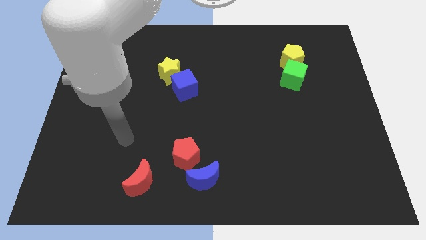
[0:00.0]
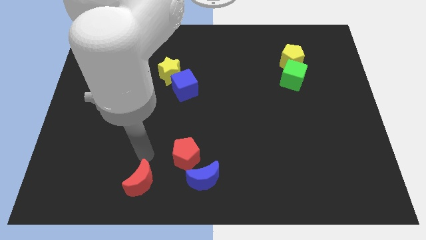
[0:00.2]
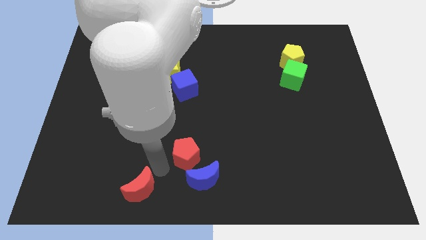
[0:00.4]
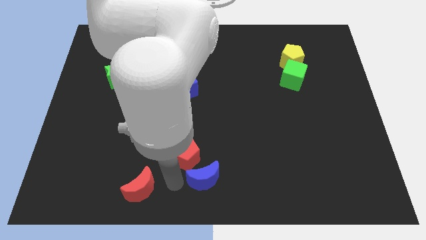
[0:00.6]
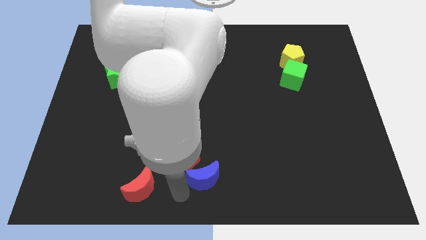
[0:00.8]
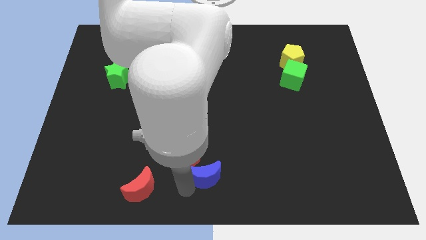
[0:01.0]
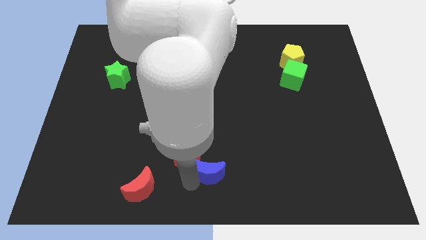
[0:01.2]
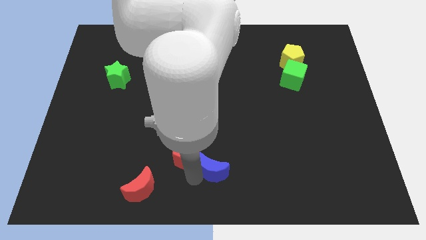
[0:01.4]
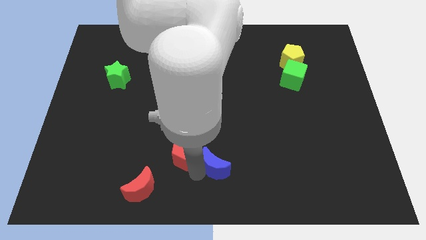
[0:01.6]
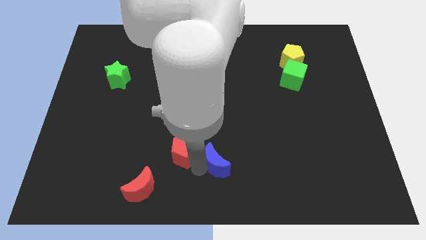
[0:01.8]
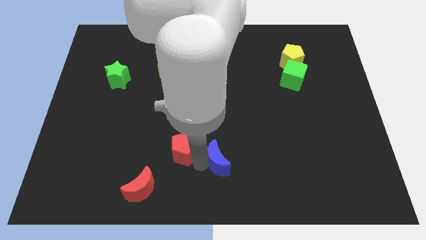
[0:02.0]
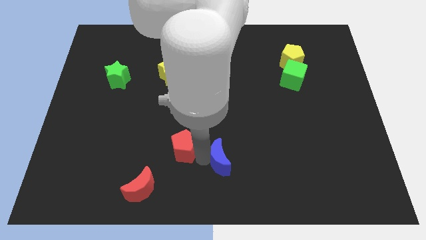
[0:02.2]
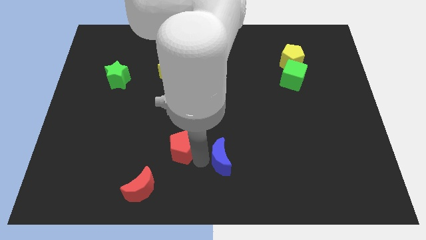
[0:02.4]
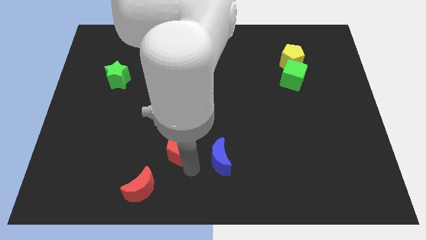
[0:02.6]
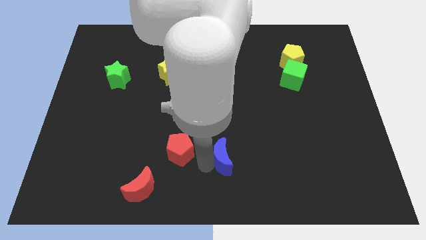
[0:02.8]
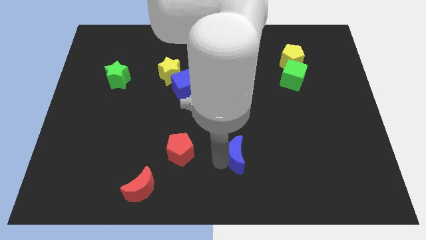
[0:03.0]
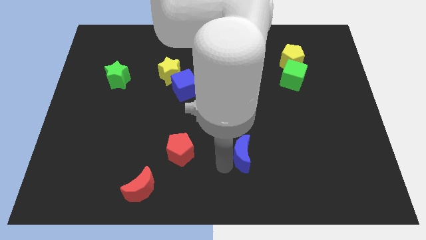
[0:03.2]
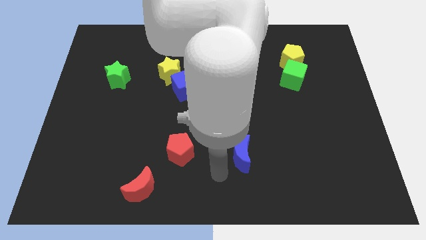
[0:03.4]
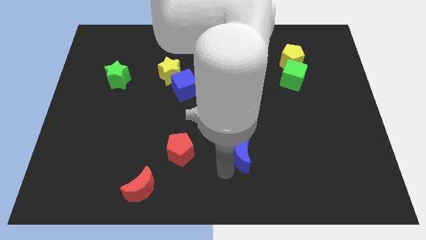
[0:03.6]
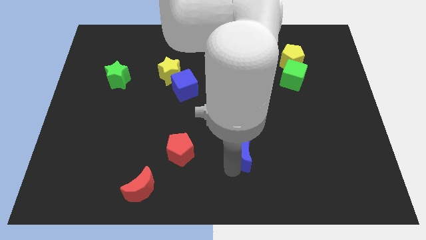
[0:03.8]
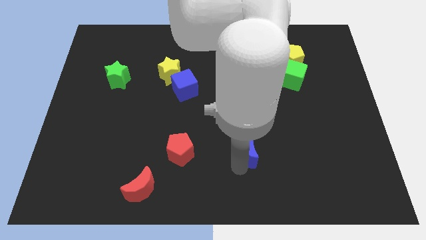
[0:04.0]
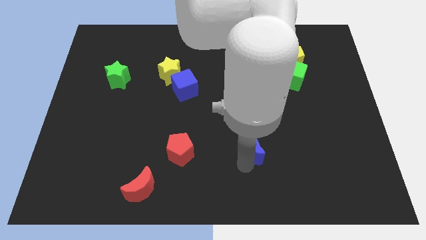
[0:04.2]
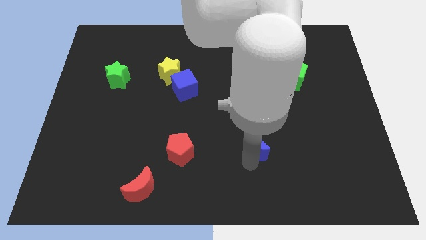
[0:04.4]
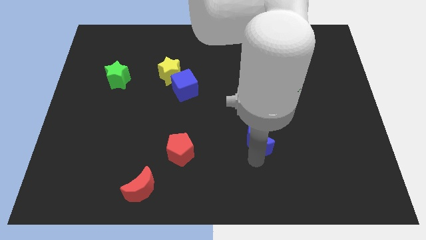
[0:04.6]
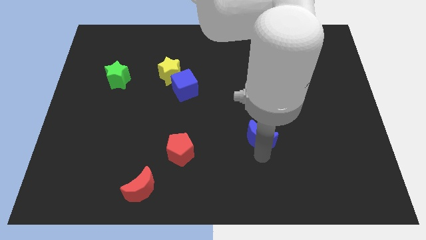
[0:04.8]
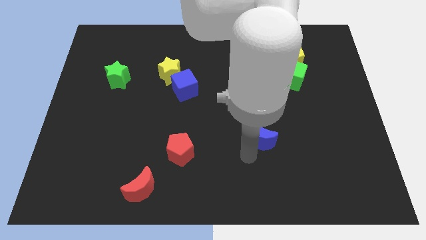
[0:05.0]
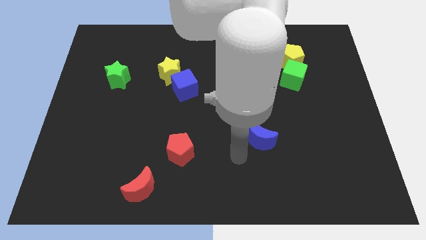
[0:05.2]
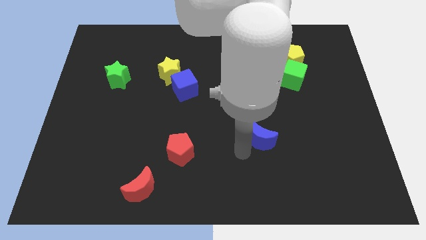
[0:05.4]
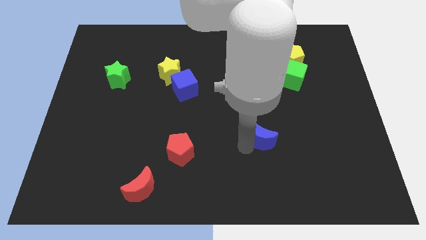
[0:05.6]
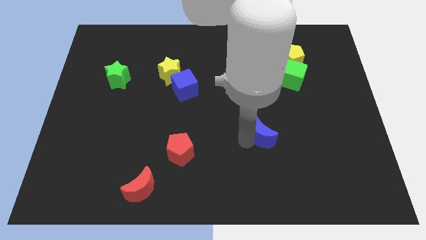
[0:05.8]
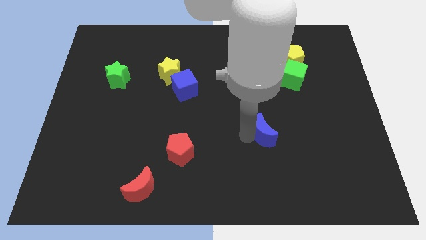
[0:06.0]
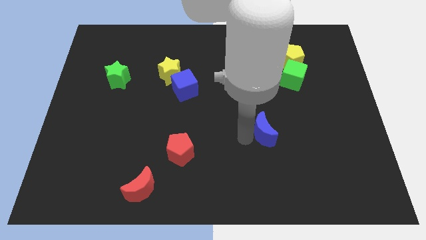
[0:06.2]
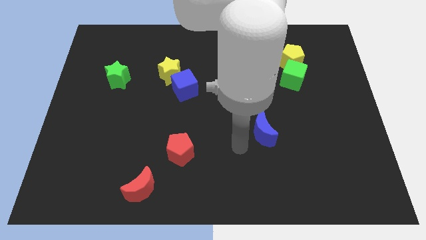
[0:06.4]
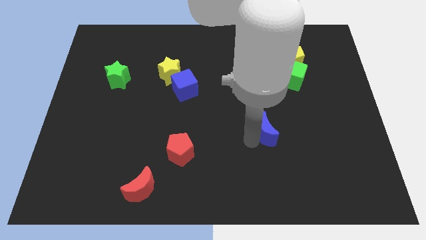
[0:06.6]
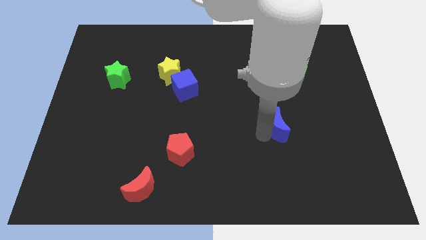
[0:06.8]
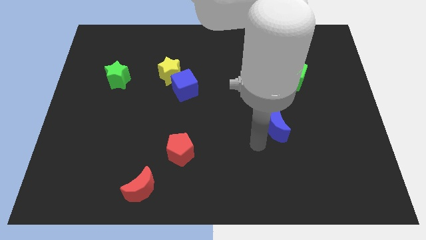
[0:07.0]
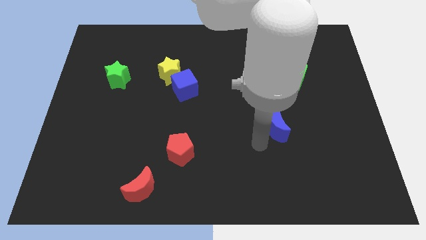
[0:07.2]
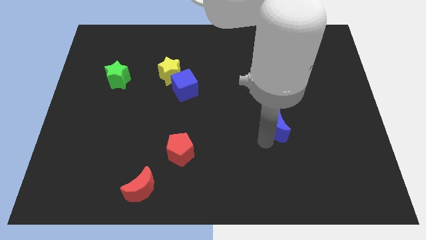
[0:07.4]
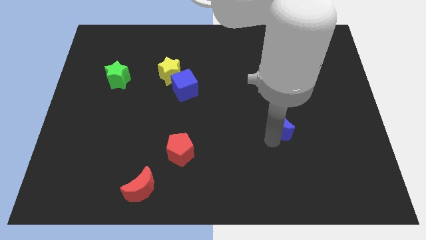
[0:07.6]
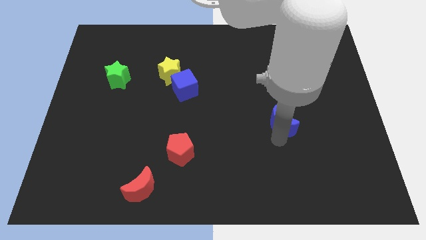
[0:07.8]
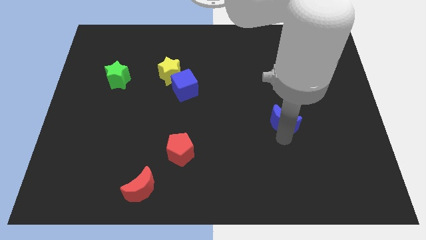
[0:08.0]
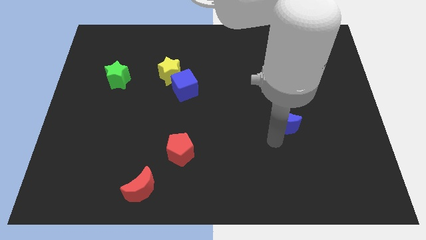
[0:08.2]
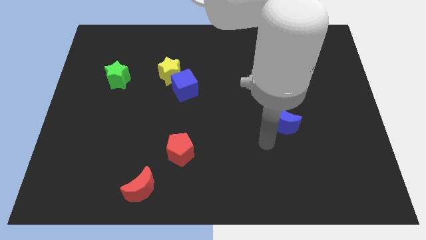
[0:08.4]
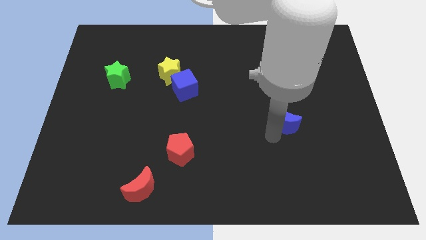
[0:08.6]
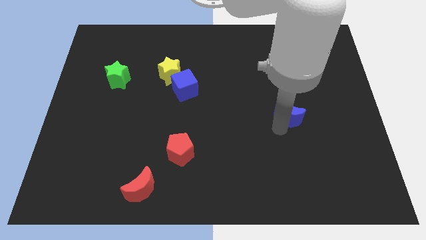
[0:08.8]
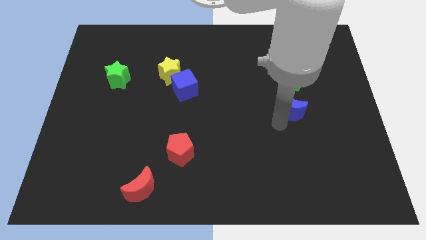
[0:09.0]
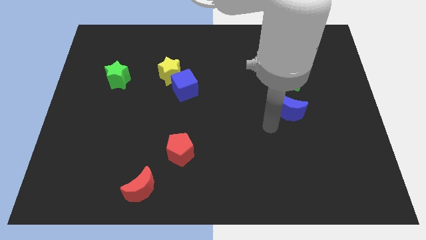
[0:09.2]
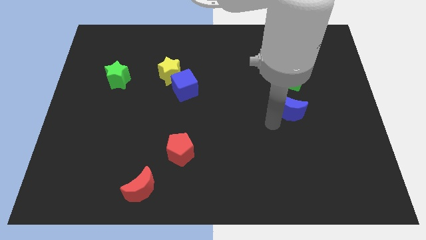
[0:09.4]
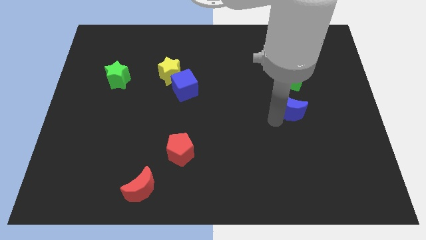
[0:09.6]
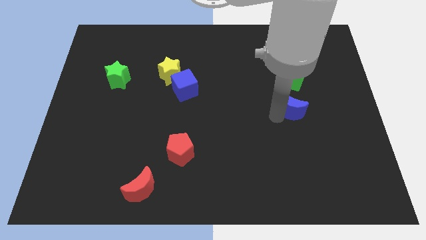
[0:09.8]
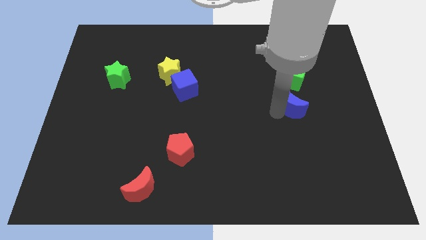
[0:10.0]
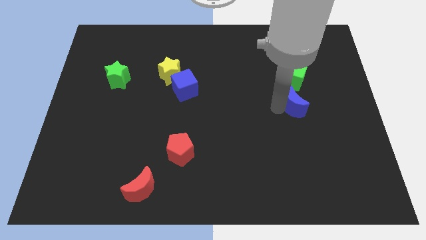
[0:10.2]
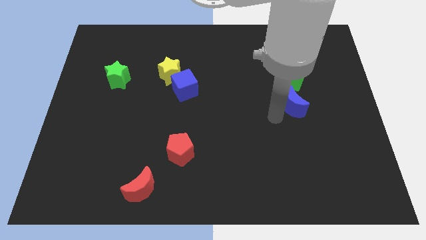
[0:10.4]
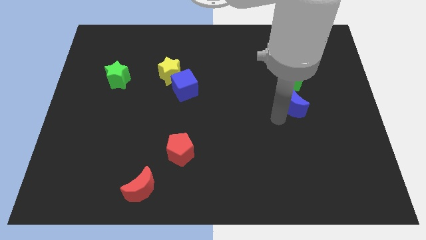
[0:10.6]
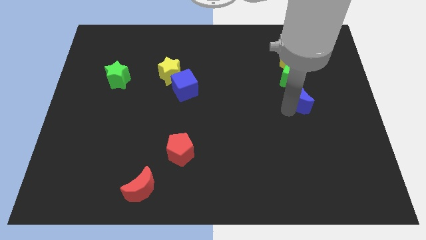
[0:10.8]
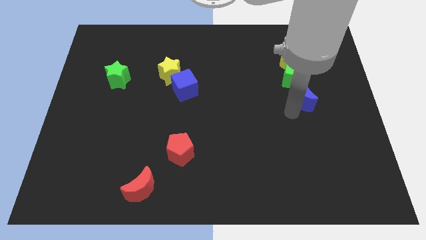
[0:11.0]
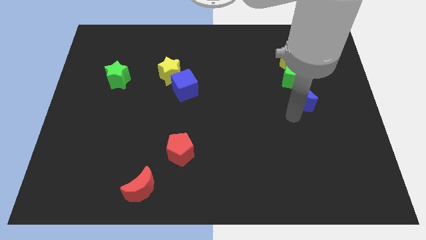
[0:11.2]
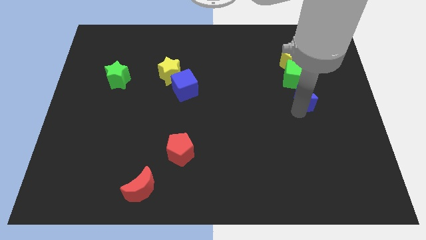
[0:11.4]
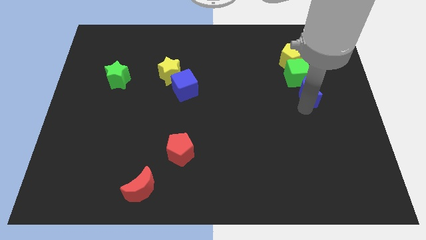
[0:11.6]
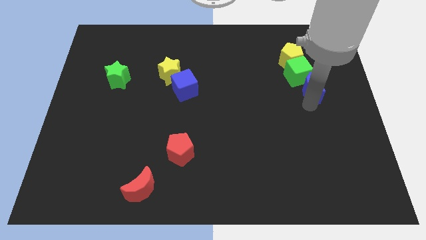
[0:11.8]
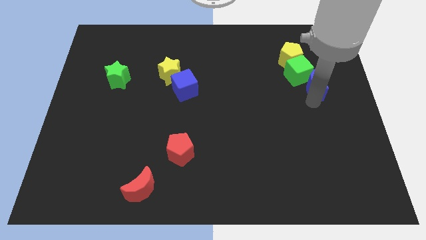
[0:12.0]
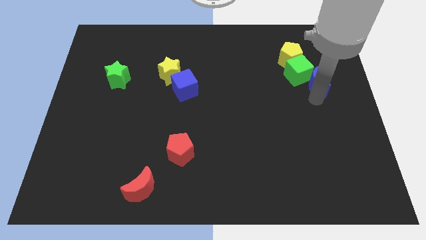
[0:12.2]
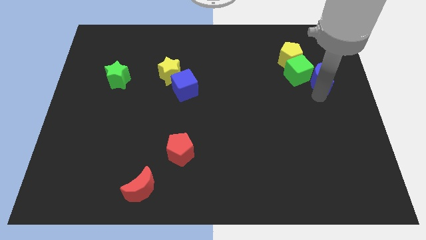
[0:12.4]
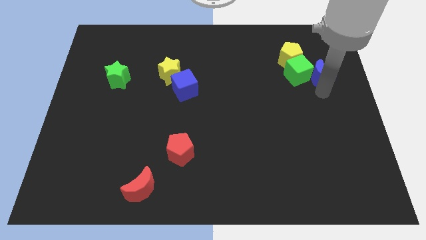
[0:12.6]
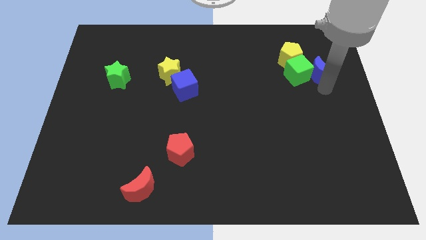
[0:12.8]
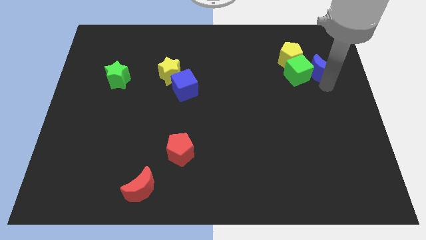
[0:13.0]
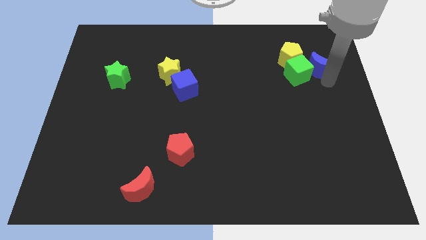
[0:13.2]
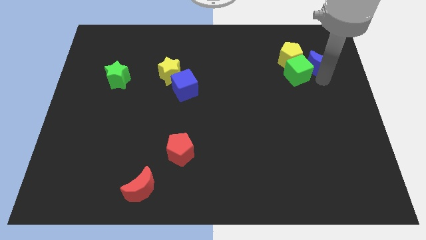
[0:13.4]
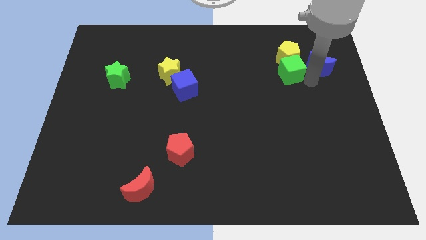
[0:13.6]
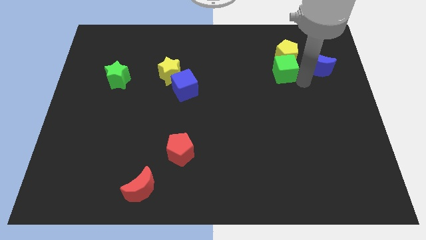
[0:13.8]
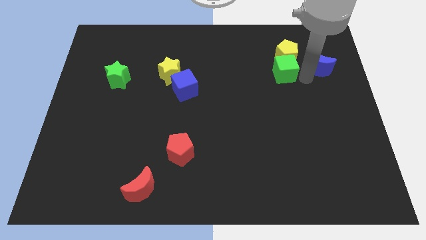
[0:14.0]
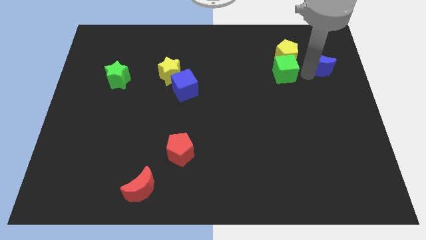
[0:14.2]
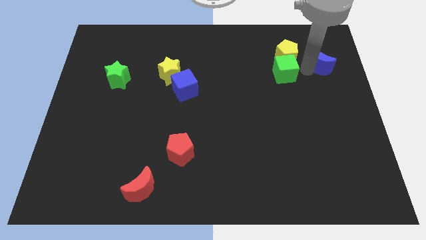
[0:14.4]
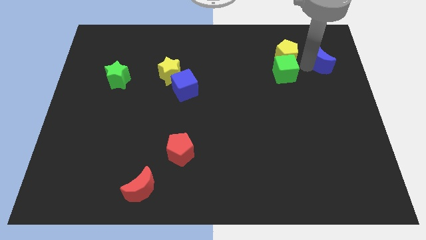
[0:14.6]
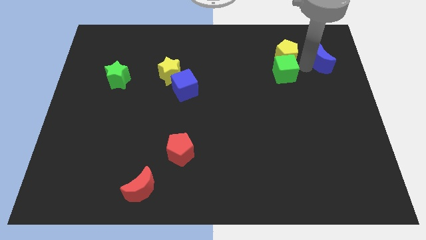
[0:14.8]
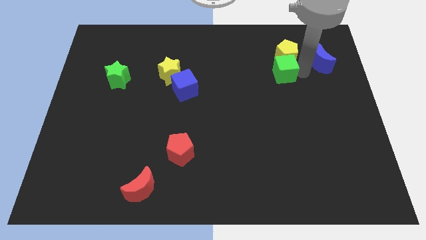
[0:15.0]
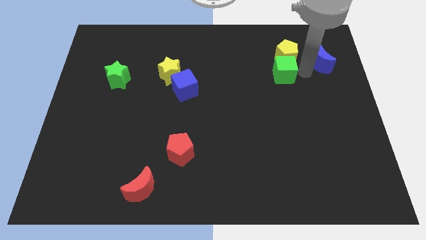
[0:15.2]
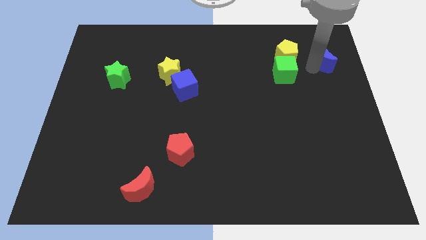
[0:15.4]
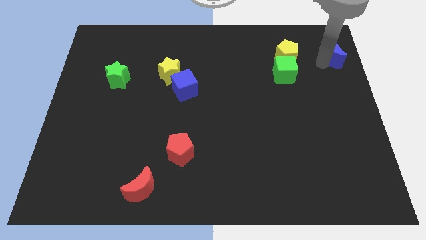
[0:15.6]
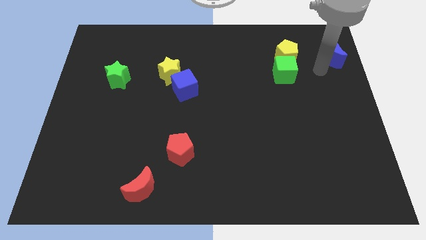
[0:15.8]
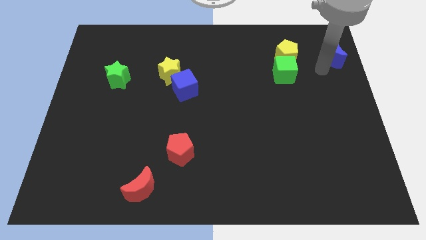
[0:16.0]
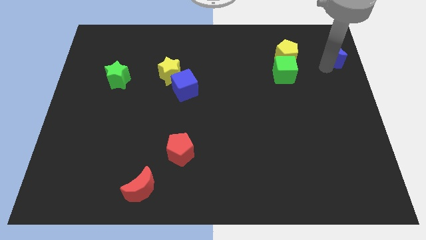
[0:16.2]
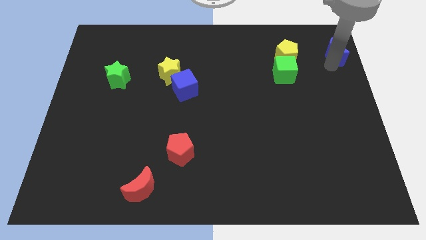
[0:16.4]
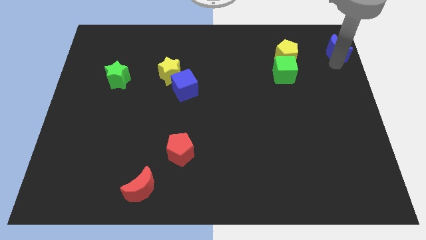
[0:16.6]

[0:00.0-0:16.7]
push the blue moon to the top right of the board
